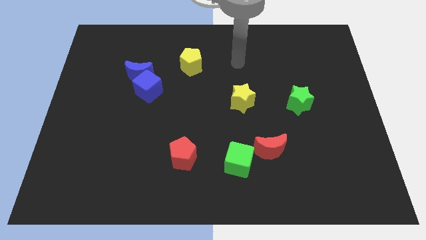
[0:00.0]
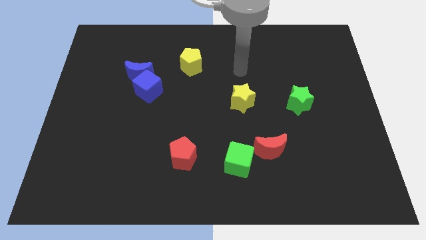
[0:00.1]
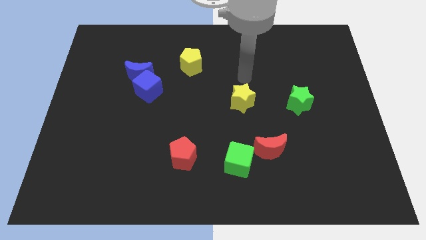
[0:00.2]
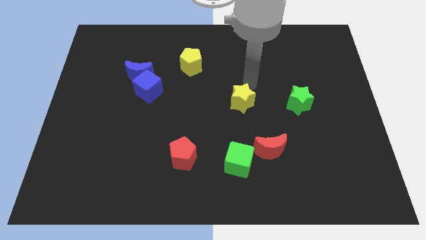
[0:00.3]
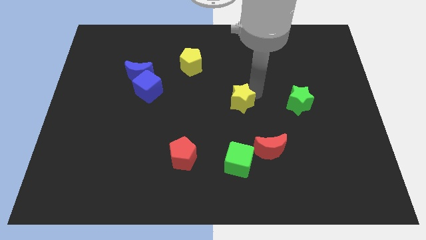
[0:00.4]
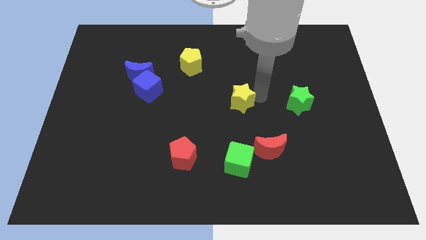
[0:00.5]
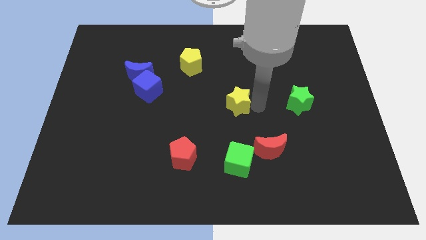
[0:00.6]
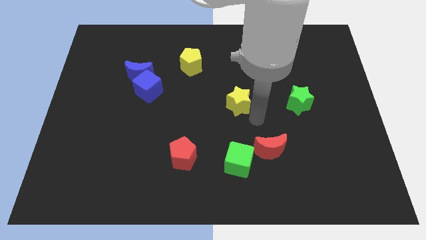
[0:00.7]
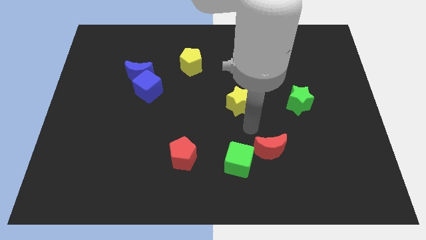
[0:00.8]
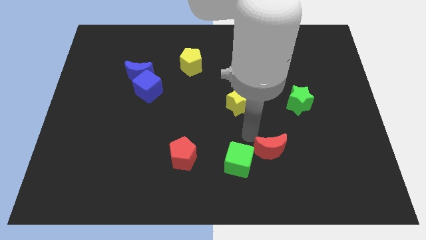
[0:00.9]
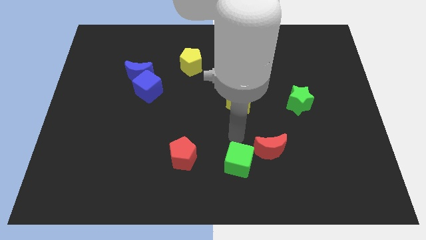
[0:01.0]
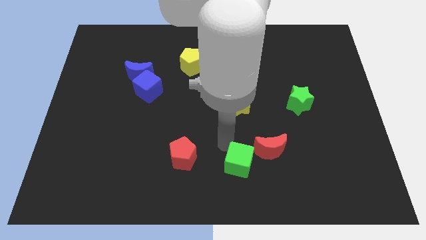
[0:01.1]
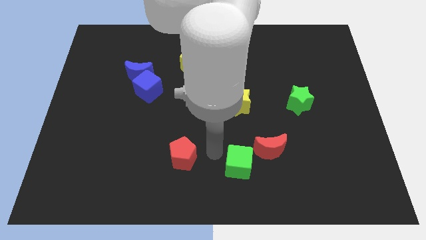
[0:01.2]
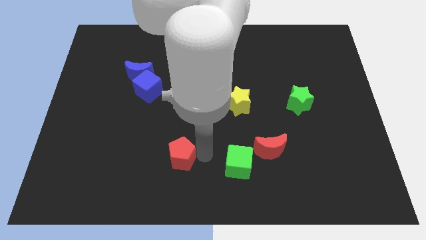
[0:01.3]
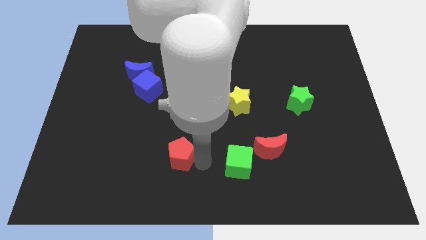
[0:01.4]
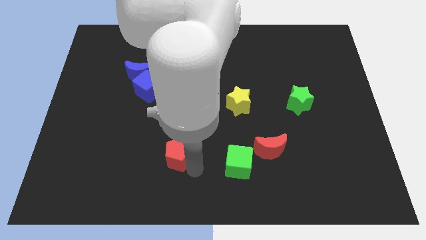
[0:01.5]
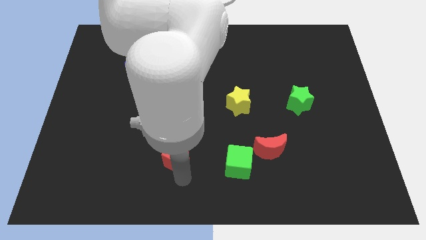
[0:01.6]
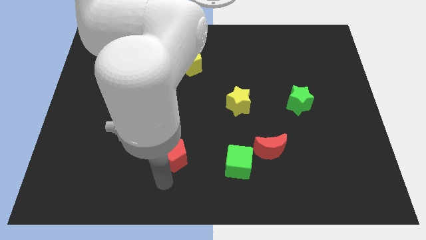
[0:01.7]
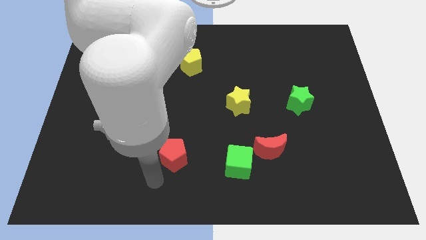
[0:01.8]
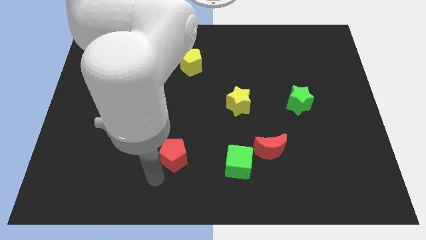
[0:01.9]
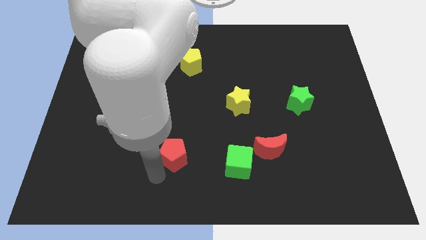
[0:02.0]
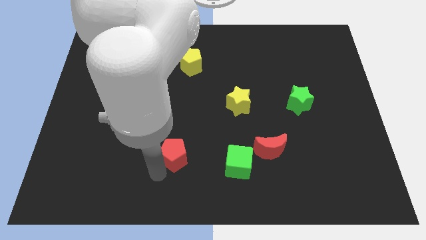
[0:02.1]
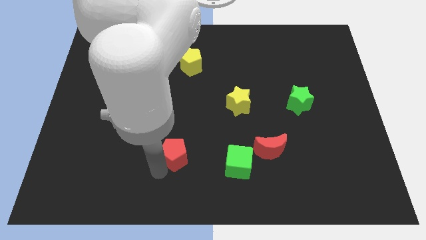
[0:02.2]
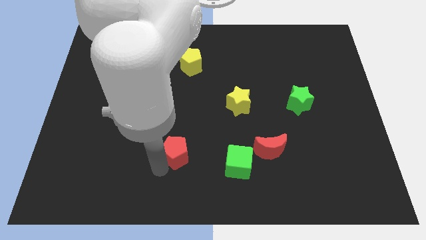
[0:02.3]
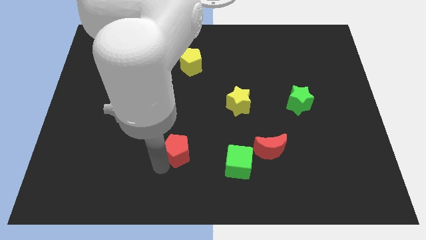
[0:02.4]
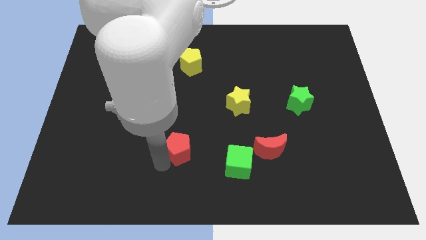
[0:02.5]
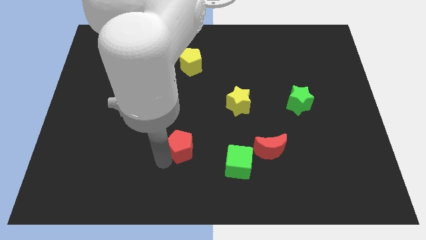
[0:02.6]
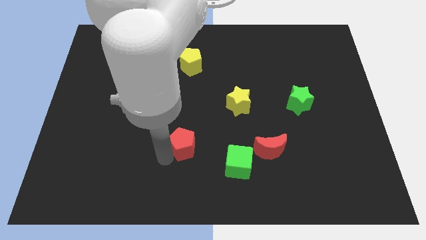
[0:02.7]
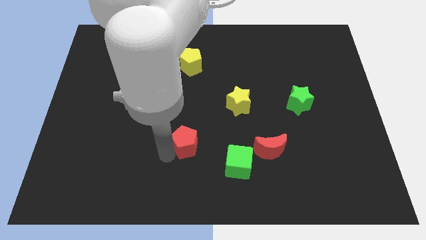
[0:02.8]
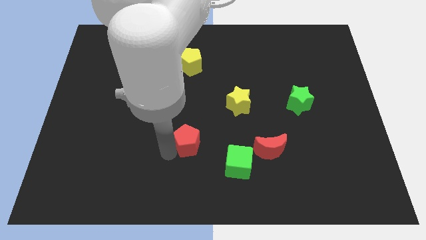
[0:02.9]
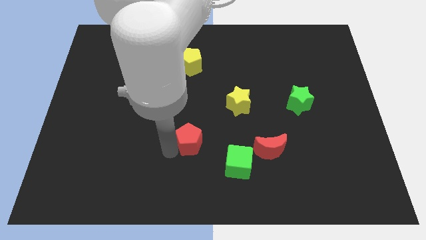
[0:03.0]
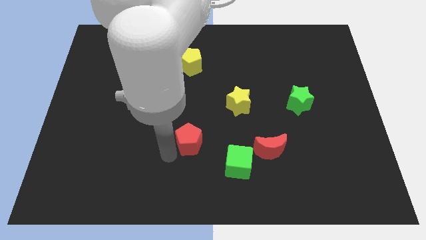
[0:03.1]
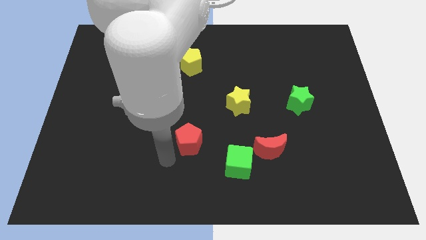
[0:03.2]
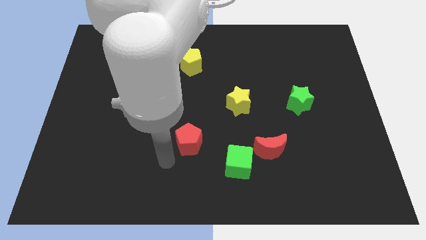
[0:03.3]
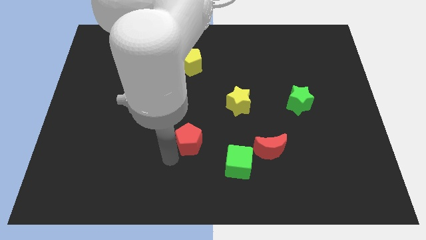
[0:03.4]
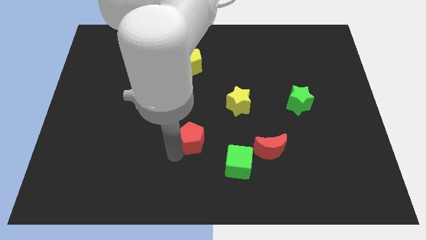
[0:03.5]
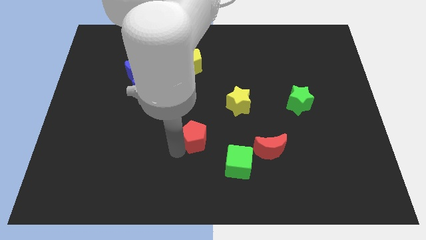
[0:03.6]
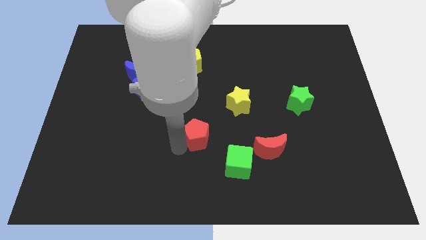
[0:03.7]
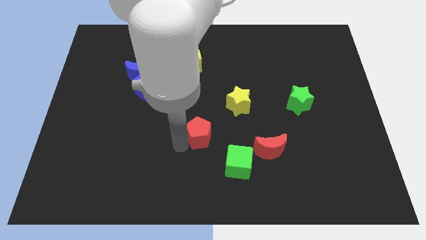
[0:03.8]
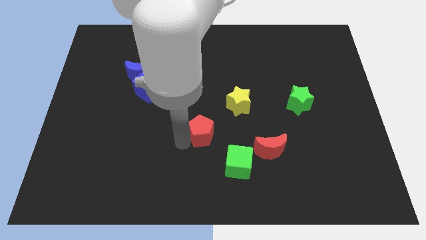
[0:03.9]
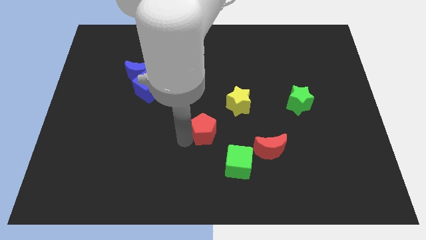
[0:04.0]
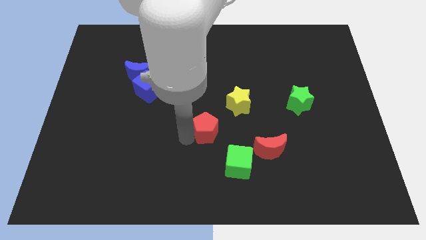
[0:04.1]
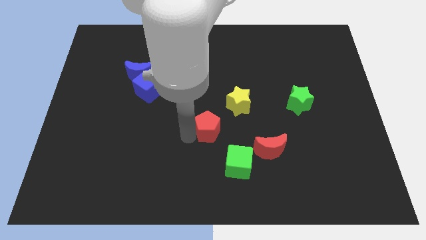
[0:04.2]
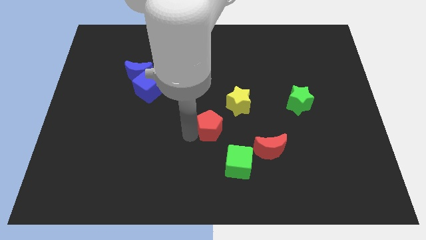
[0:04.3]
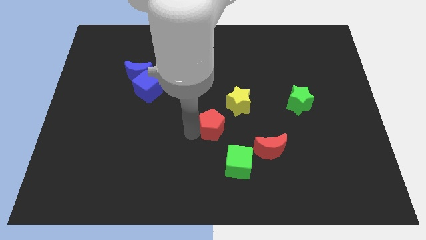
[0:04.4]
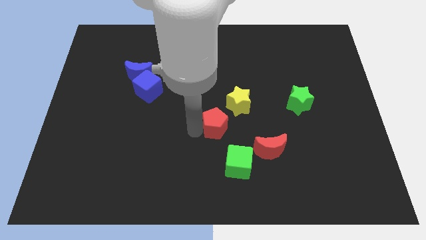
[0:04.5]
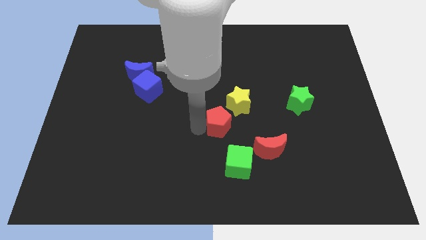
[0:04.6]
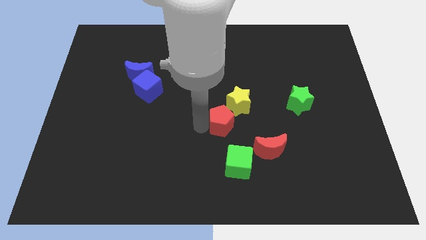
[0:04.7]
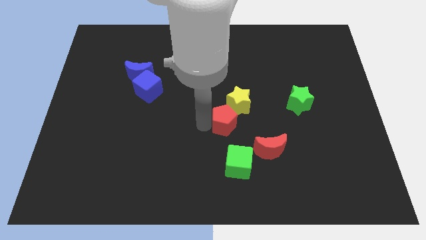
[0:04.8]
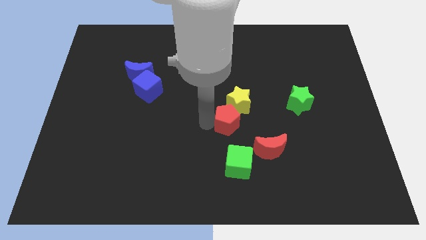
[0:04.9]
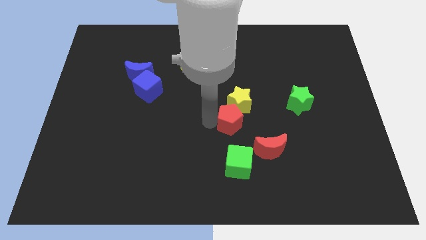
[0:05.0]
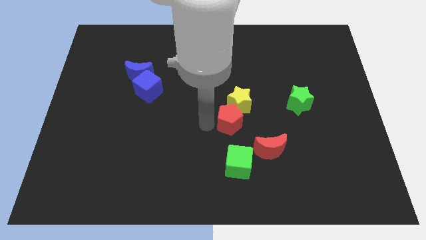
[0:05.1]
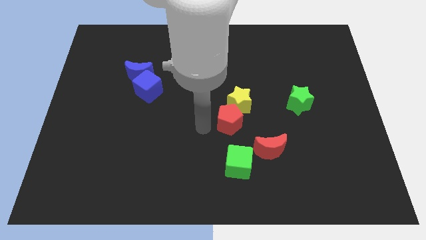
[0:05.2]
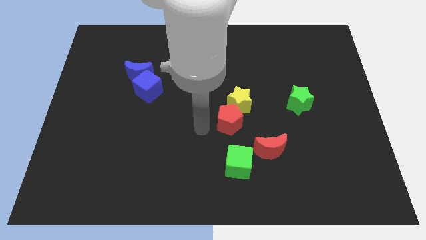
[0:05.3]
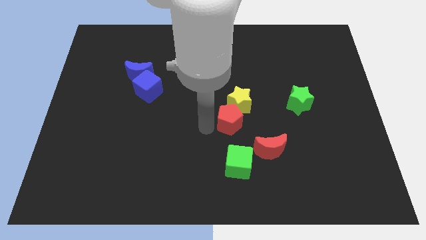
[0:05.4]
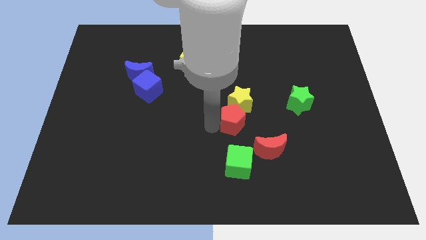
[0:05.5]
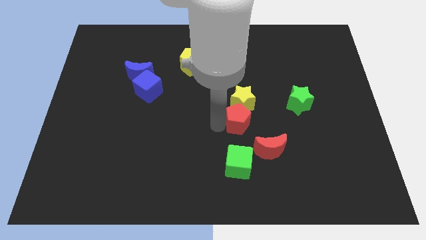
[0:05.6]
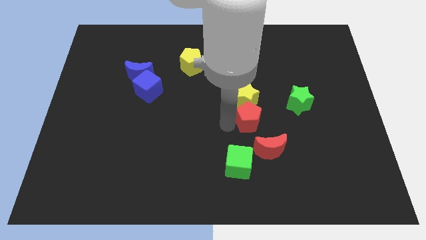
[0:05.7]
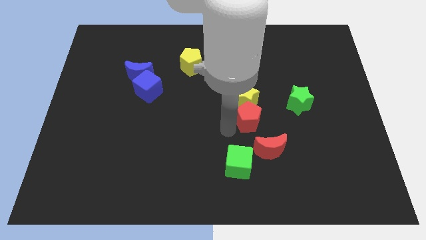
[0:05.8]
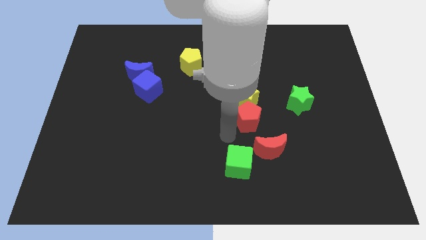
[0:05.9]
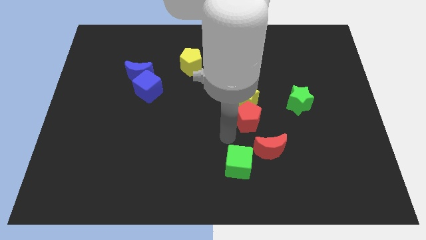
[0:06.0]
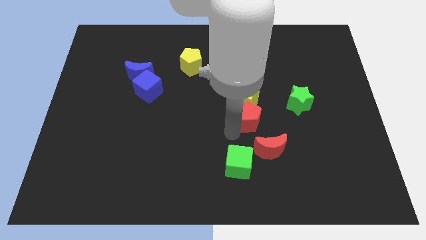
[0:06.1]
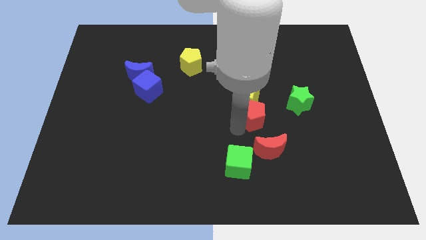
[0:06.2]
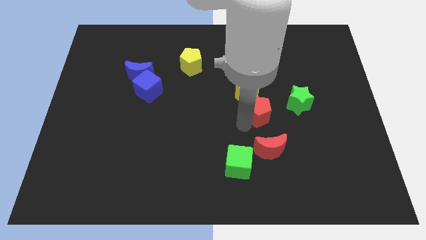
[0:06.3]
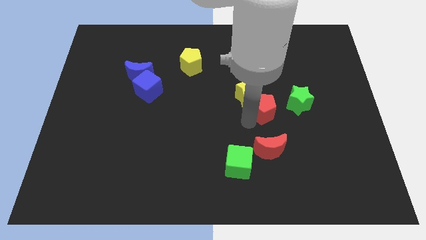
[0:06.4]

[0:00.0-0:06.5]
move the red pentagon diagonally upwards and right

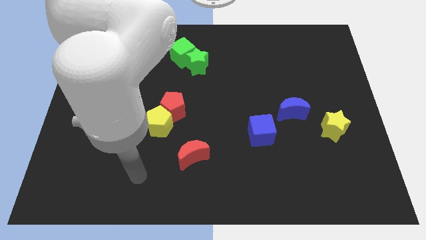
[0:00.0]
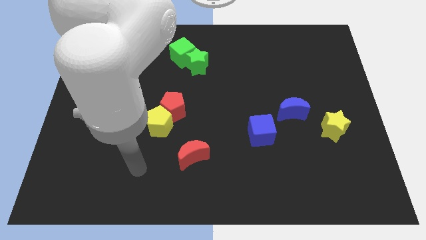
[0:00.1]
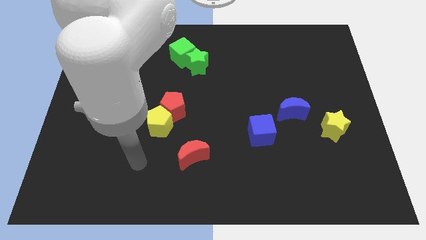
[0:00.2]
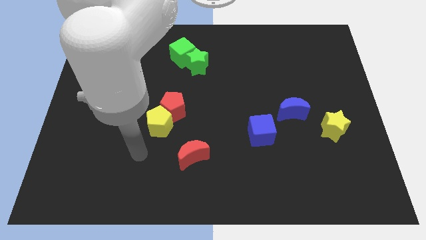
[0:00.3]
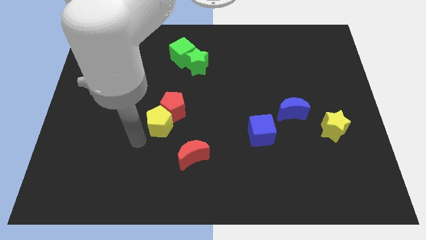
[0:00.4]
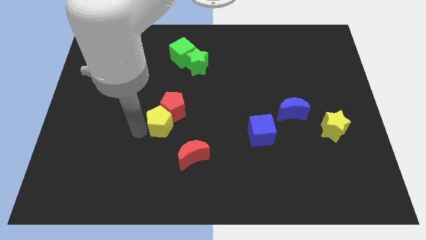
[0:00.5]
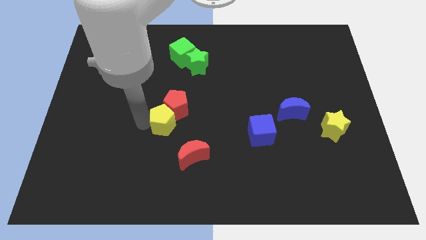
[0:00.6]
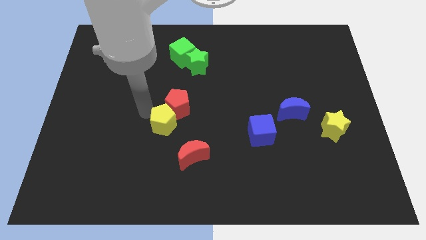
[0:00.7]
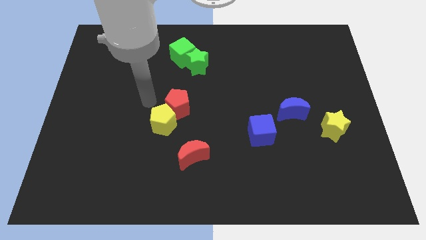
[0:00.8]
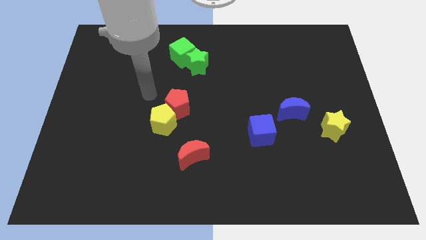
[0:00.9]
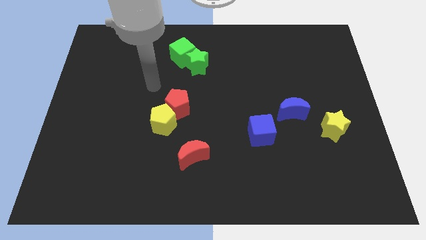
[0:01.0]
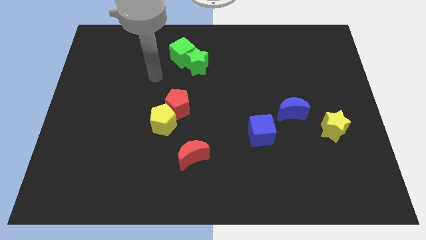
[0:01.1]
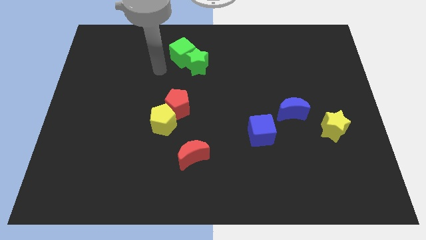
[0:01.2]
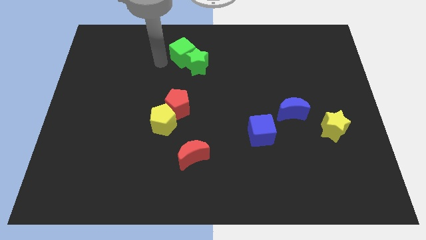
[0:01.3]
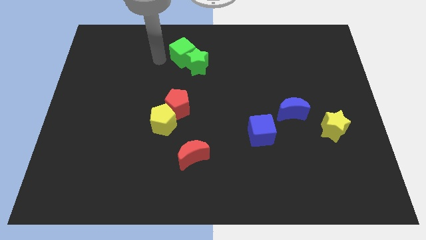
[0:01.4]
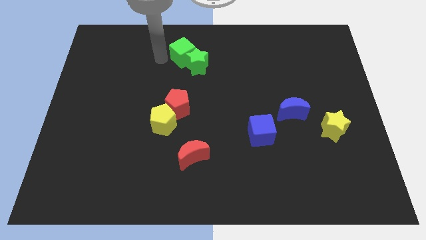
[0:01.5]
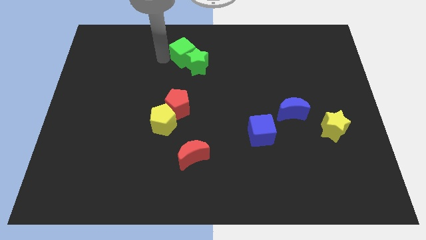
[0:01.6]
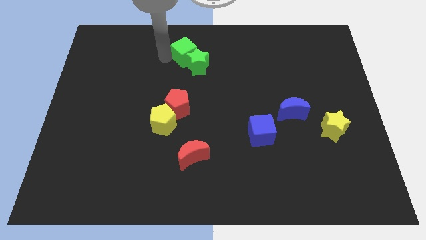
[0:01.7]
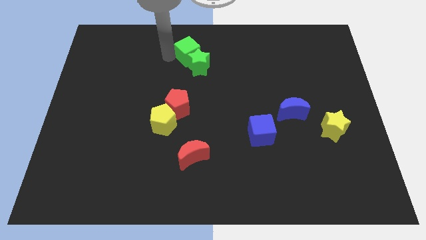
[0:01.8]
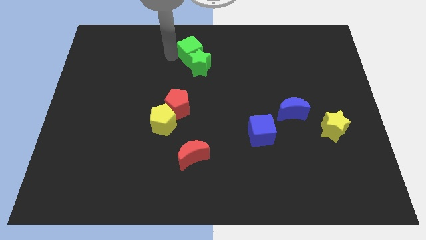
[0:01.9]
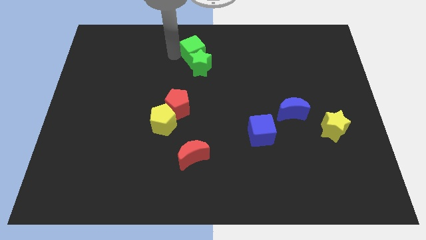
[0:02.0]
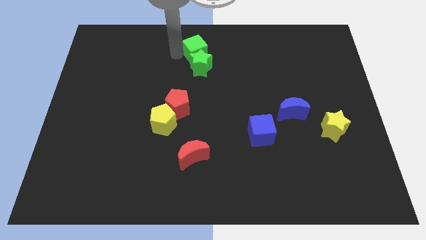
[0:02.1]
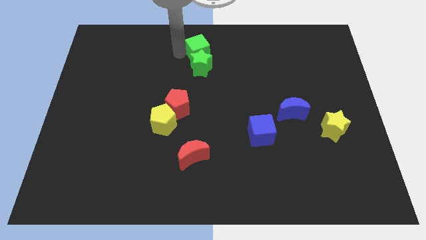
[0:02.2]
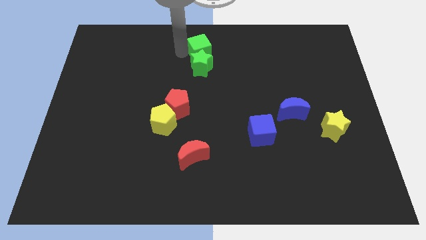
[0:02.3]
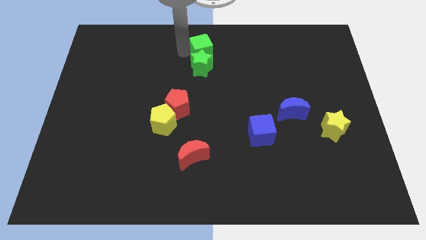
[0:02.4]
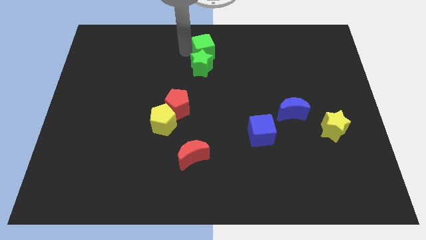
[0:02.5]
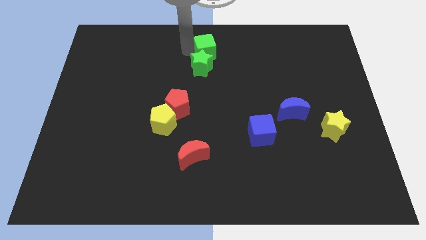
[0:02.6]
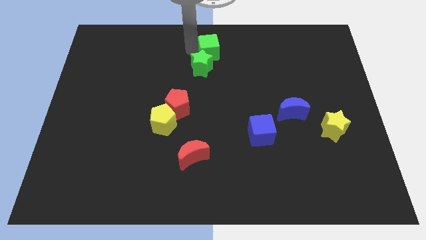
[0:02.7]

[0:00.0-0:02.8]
slightly push the green cube to the right
